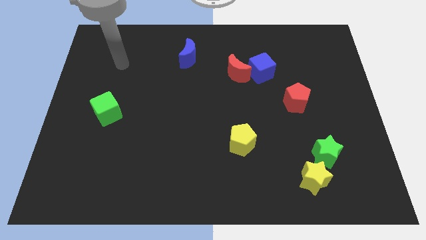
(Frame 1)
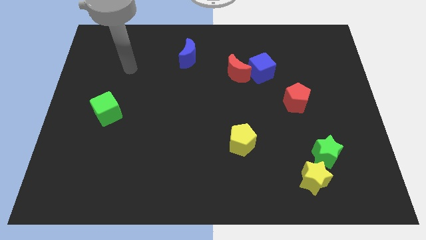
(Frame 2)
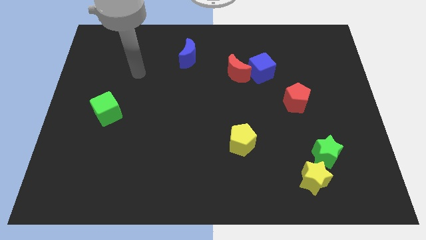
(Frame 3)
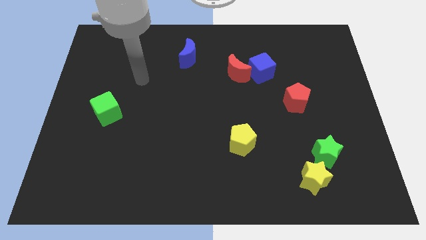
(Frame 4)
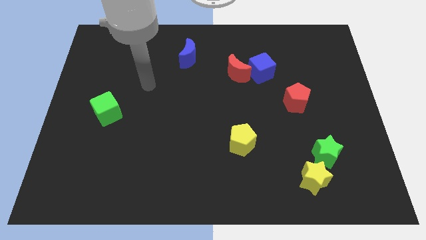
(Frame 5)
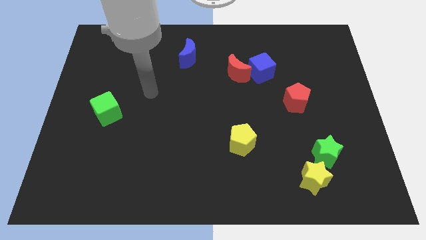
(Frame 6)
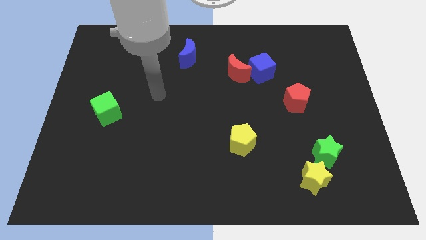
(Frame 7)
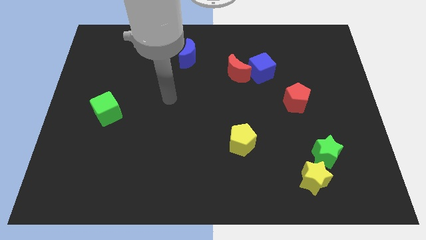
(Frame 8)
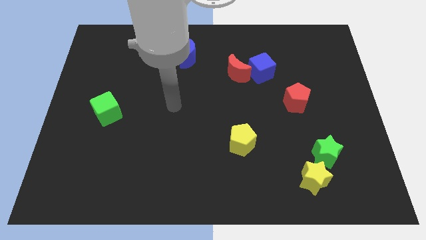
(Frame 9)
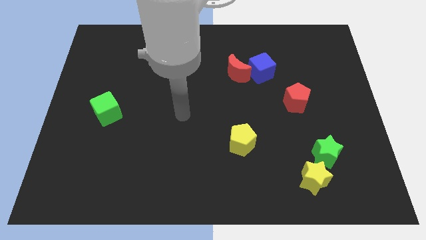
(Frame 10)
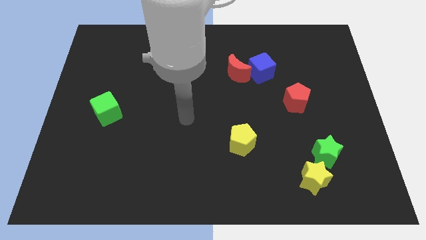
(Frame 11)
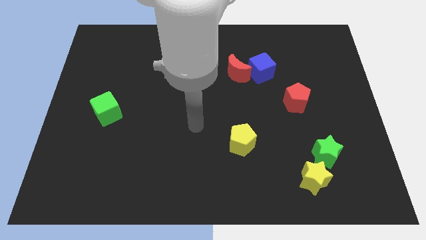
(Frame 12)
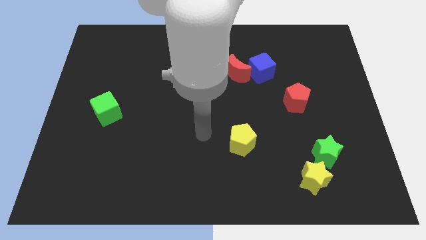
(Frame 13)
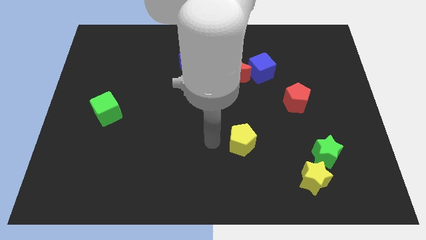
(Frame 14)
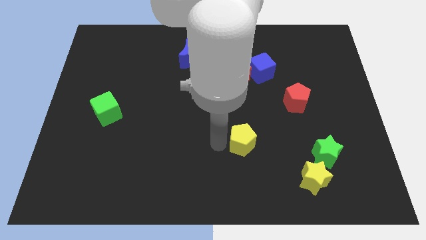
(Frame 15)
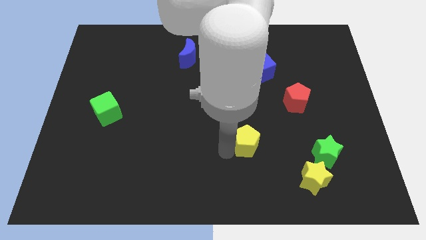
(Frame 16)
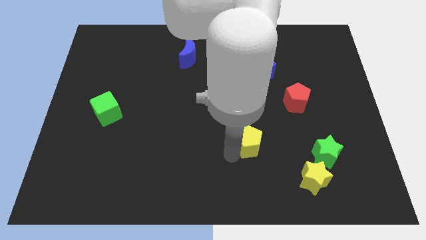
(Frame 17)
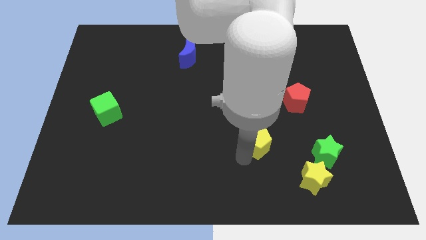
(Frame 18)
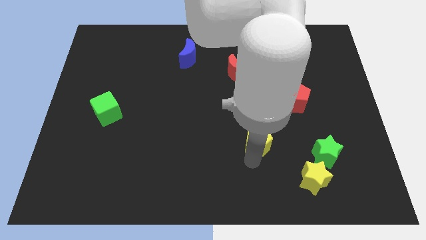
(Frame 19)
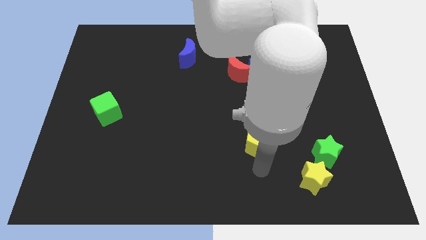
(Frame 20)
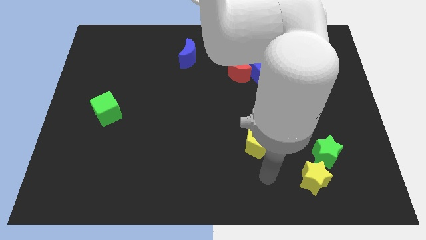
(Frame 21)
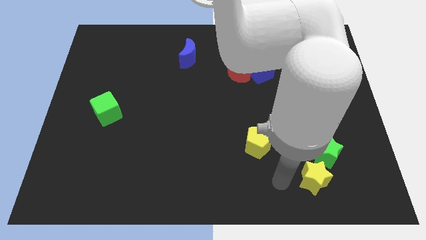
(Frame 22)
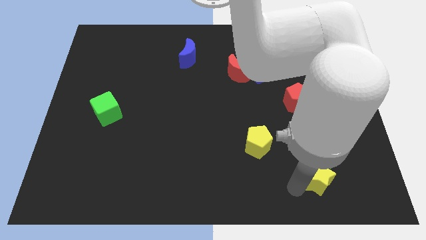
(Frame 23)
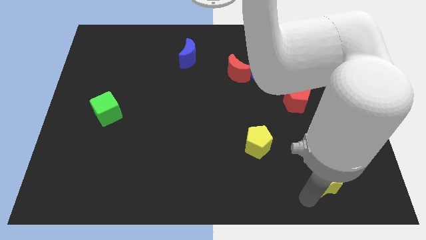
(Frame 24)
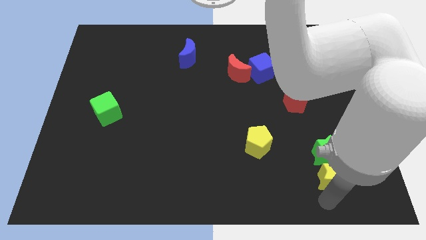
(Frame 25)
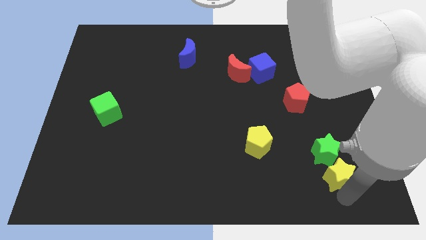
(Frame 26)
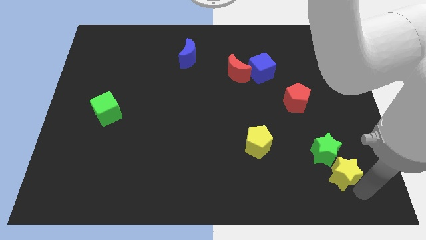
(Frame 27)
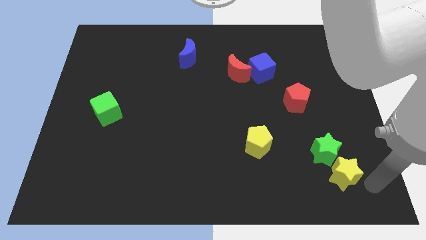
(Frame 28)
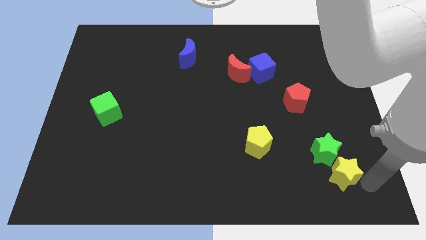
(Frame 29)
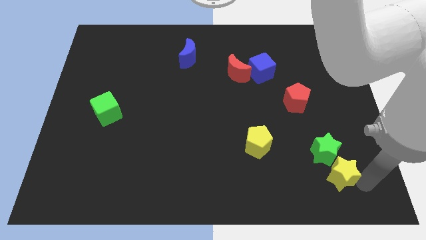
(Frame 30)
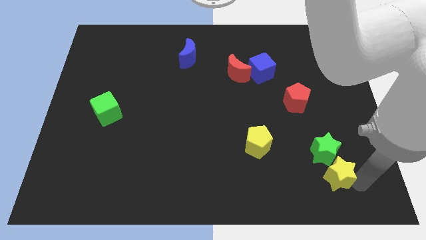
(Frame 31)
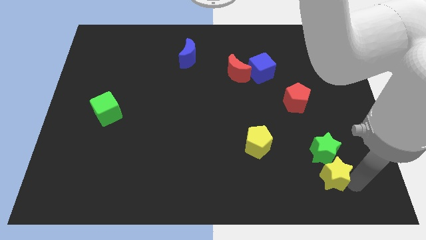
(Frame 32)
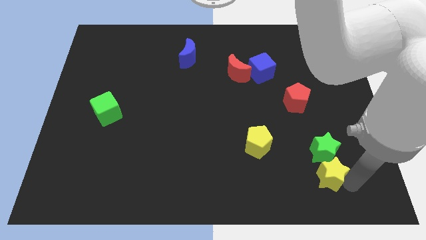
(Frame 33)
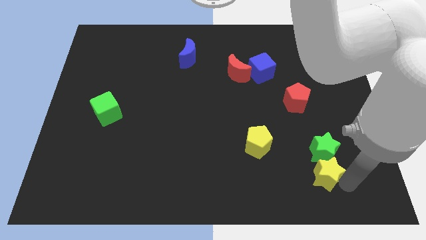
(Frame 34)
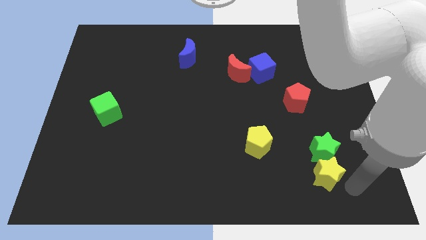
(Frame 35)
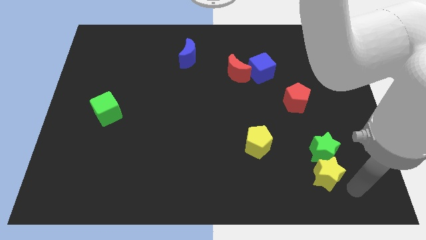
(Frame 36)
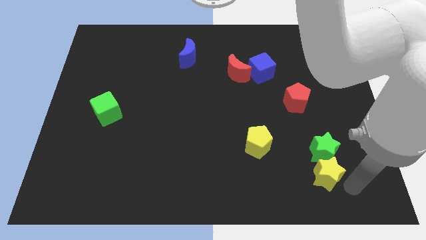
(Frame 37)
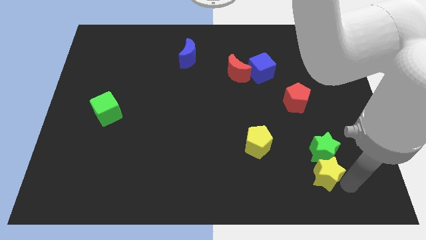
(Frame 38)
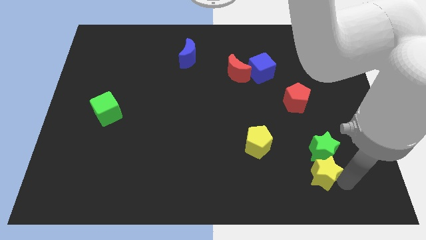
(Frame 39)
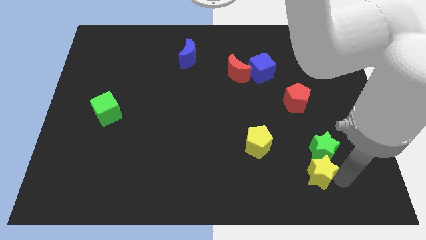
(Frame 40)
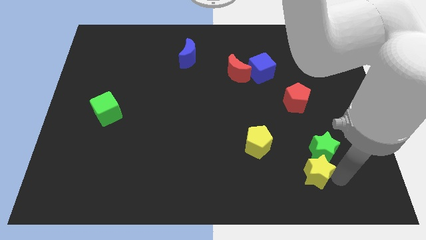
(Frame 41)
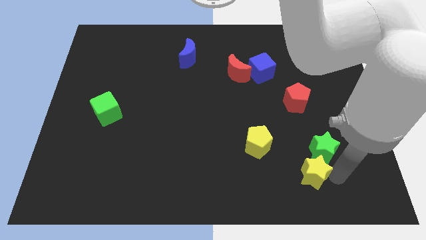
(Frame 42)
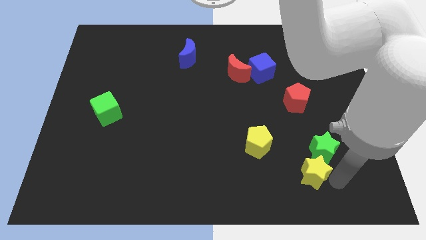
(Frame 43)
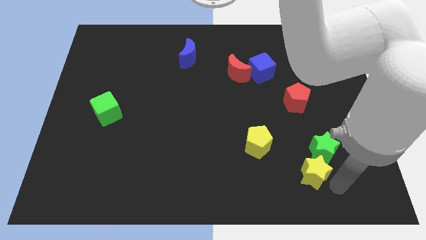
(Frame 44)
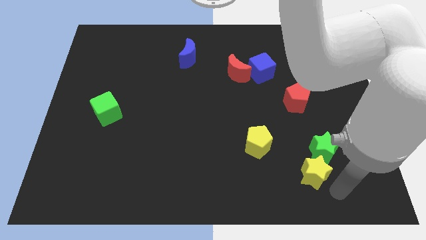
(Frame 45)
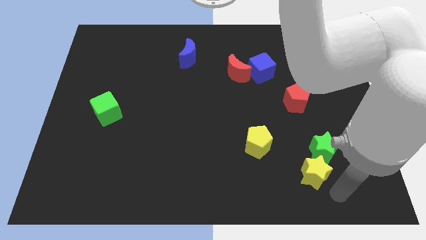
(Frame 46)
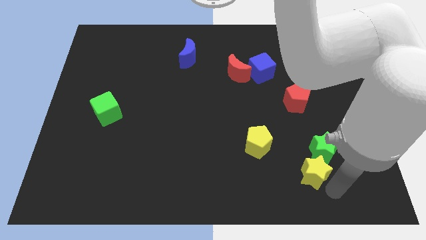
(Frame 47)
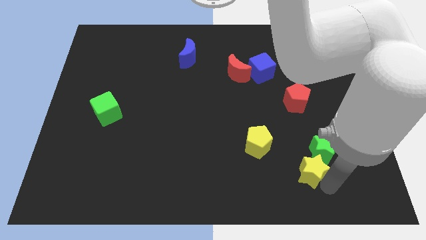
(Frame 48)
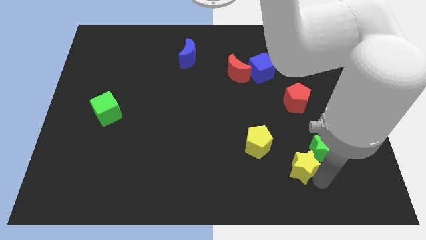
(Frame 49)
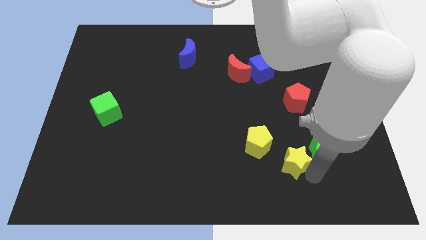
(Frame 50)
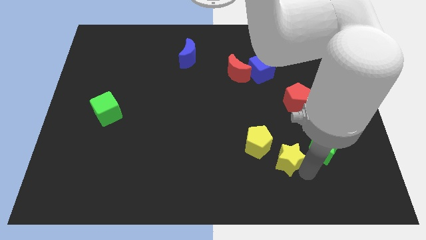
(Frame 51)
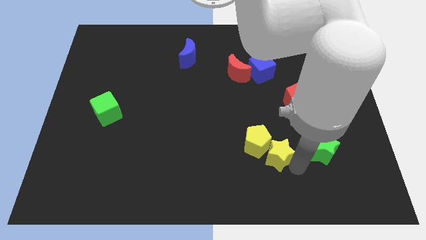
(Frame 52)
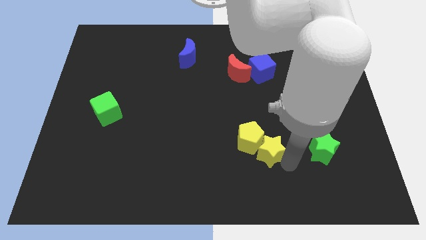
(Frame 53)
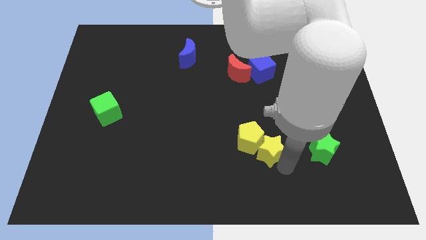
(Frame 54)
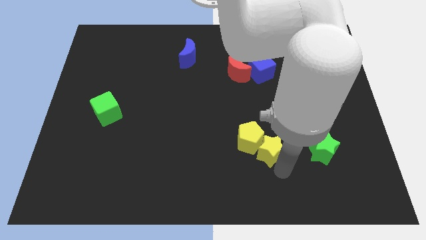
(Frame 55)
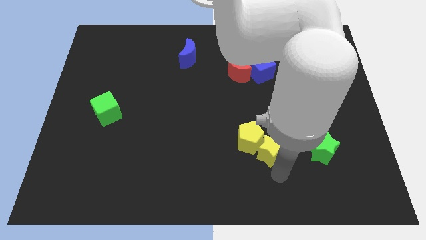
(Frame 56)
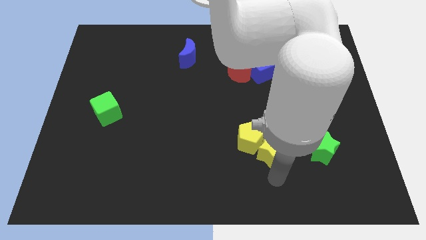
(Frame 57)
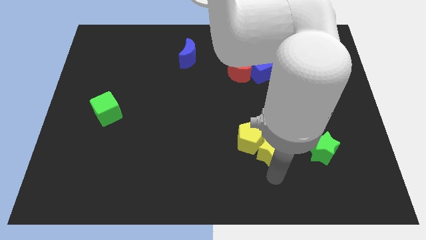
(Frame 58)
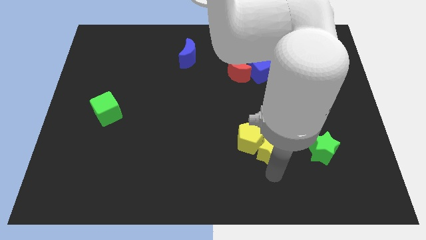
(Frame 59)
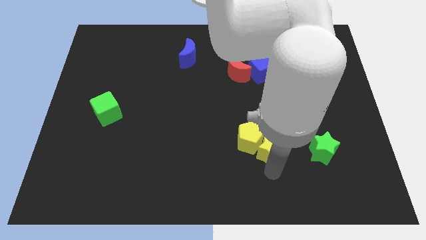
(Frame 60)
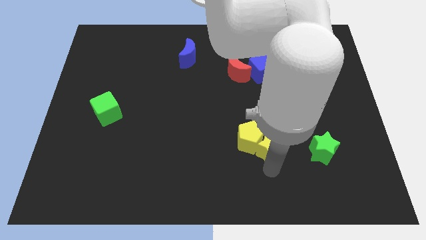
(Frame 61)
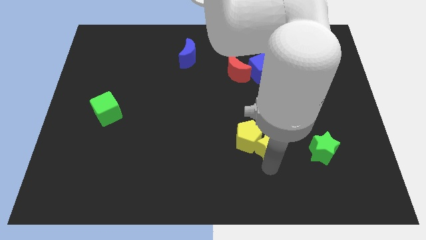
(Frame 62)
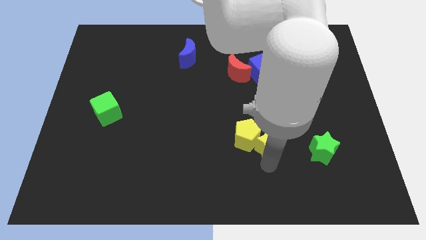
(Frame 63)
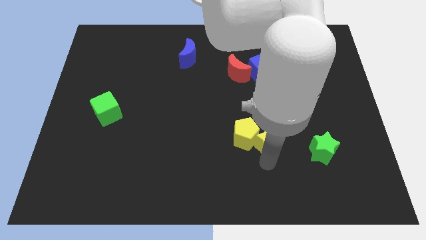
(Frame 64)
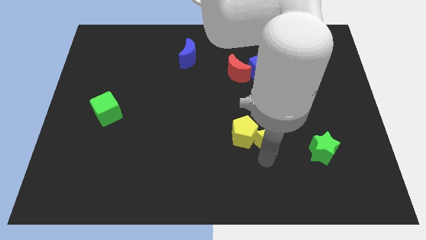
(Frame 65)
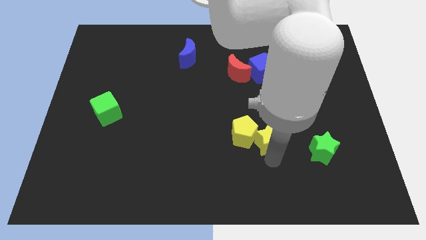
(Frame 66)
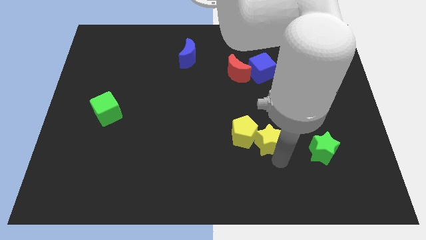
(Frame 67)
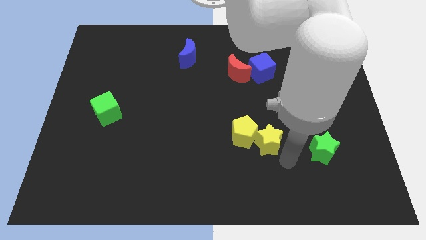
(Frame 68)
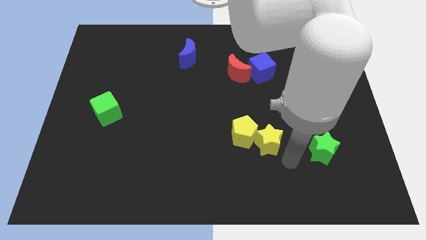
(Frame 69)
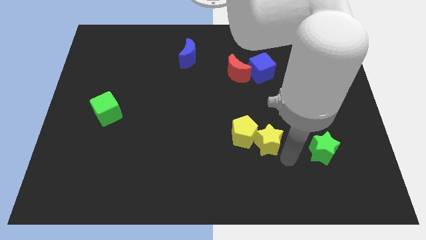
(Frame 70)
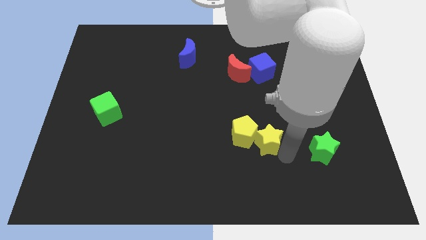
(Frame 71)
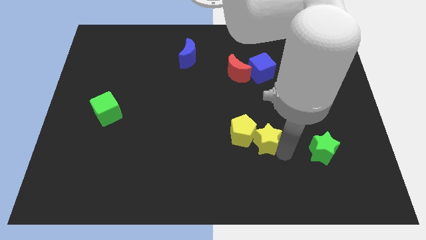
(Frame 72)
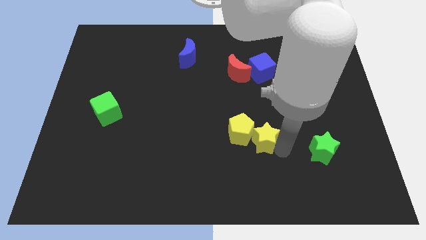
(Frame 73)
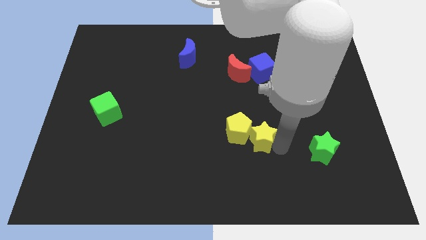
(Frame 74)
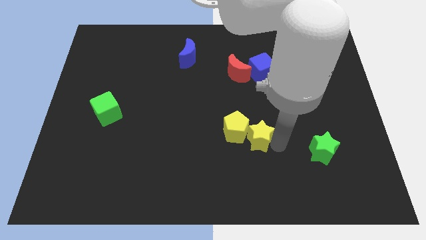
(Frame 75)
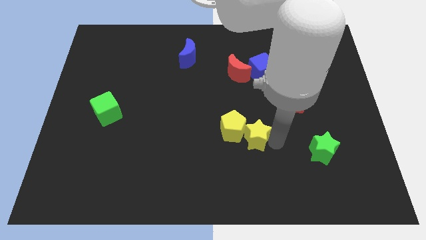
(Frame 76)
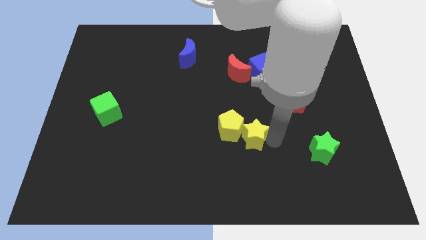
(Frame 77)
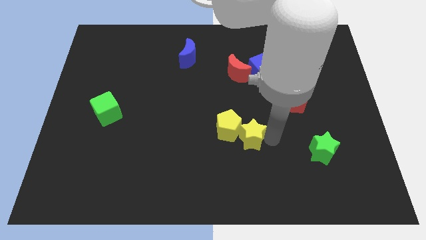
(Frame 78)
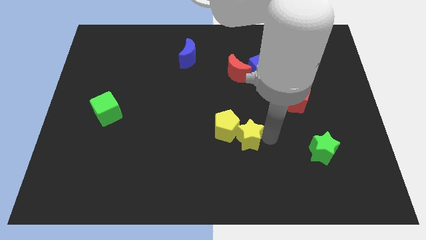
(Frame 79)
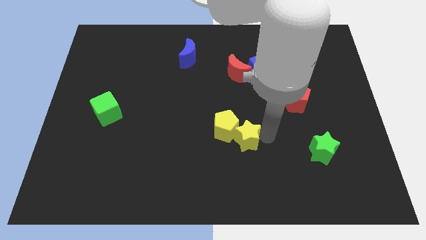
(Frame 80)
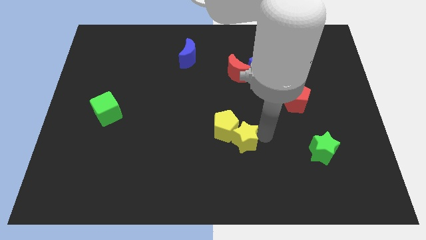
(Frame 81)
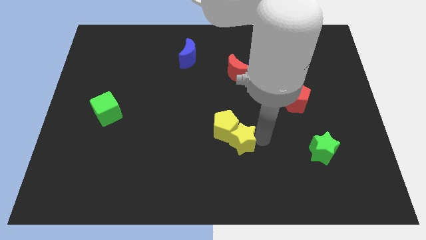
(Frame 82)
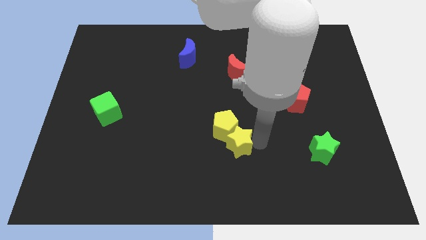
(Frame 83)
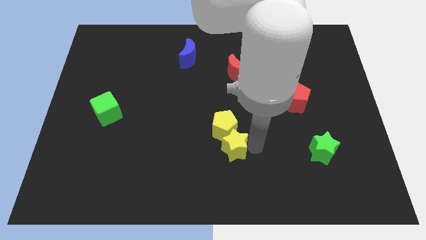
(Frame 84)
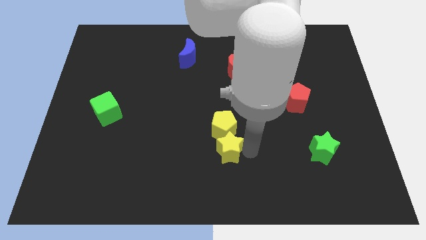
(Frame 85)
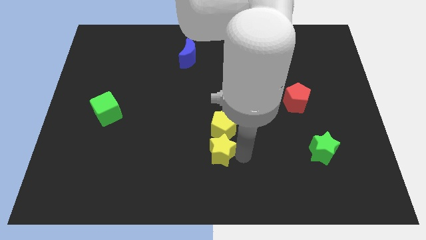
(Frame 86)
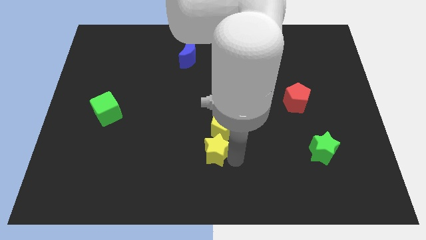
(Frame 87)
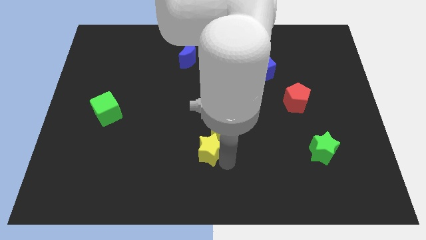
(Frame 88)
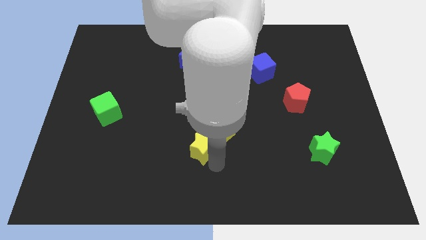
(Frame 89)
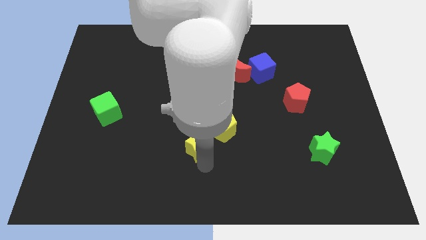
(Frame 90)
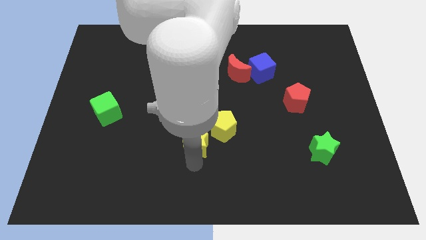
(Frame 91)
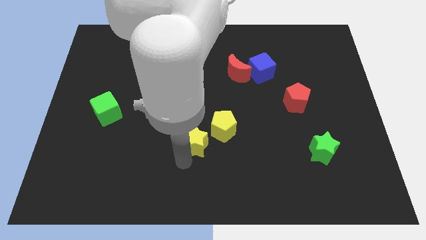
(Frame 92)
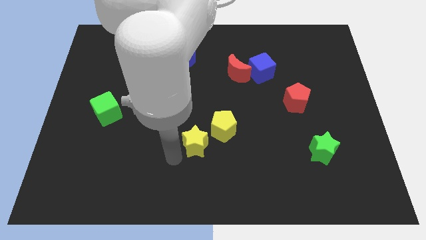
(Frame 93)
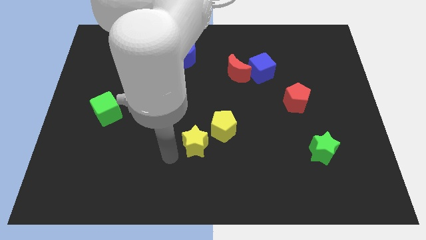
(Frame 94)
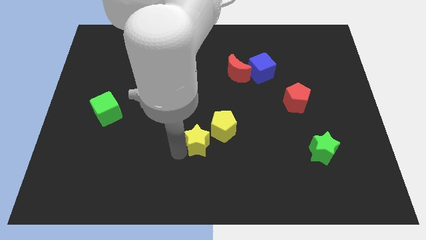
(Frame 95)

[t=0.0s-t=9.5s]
put the yellow star to the middle
